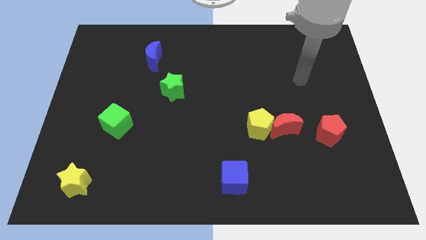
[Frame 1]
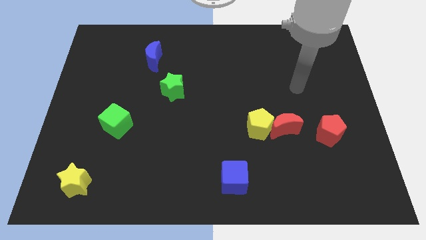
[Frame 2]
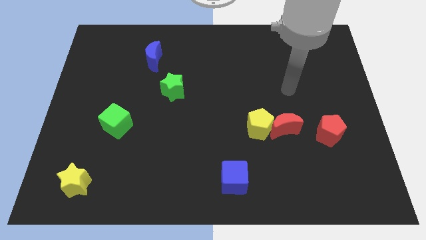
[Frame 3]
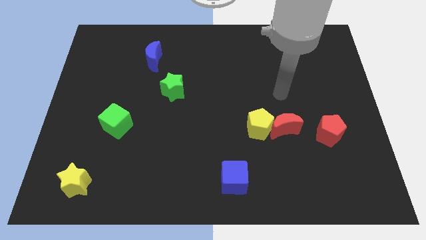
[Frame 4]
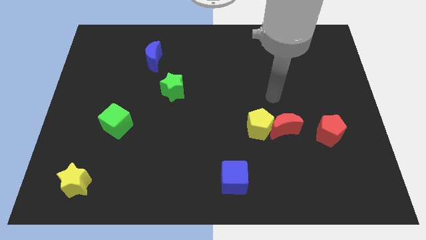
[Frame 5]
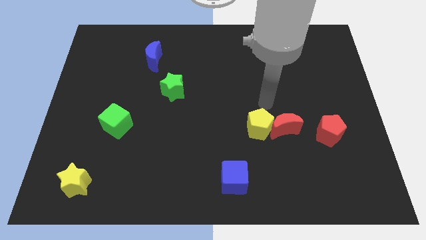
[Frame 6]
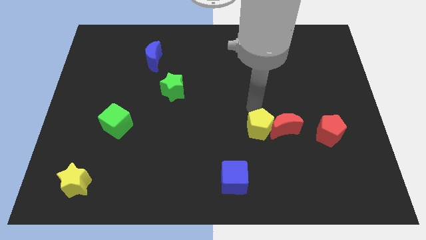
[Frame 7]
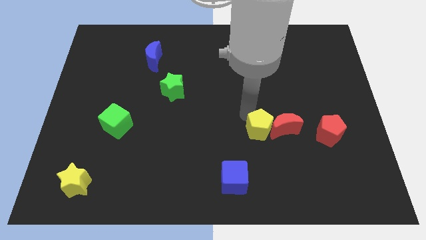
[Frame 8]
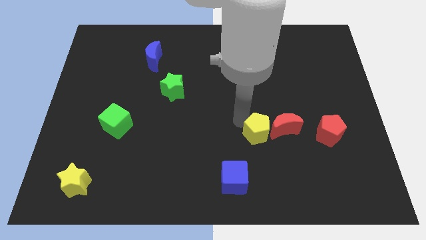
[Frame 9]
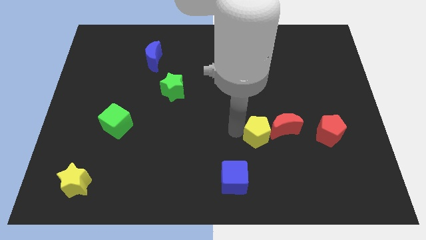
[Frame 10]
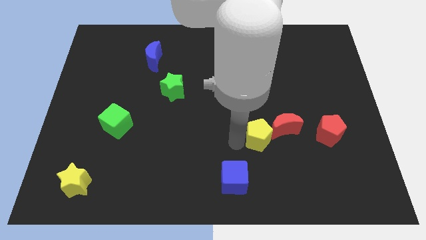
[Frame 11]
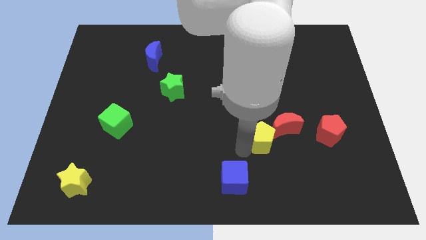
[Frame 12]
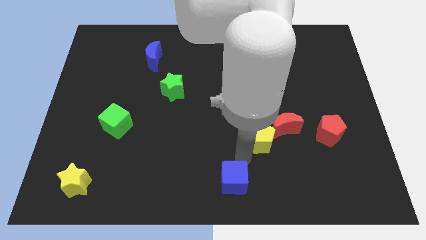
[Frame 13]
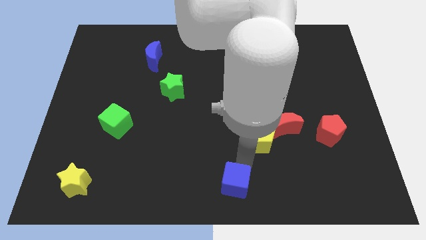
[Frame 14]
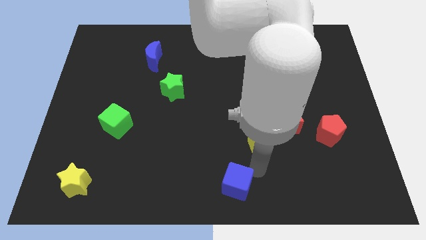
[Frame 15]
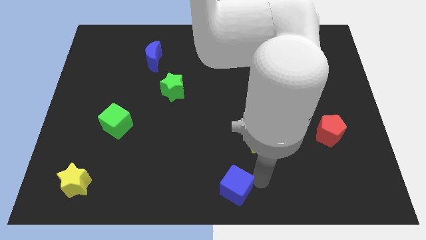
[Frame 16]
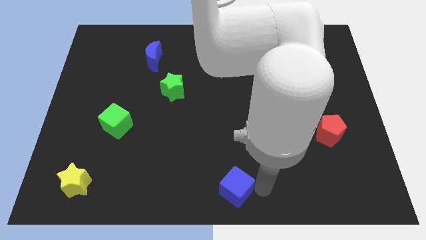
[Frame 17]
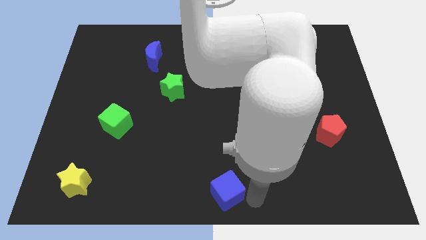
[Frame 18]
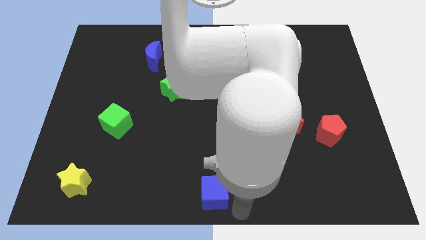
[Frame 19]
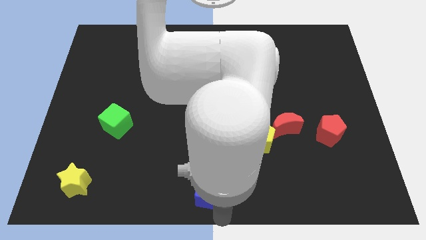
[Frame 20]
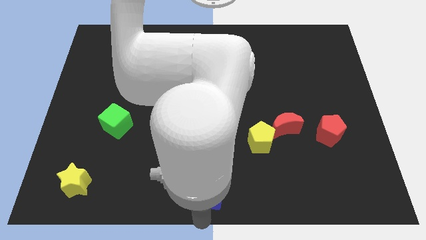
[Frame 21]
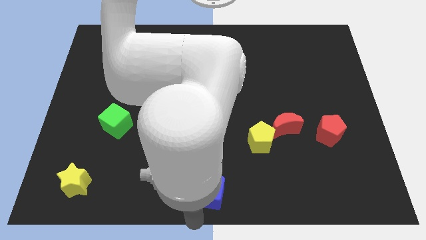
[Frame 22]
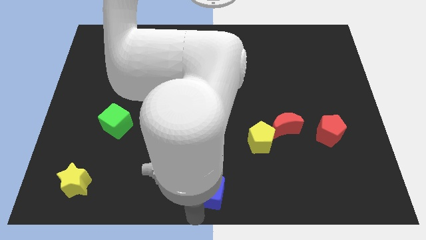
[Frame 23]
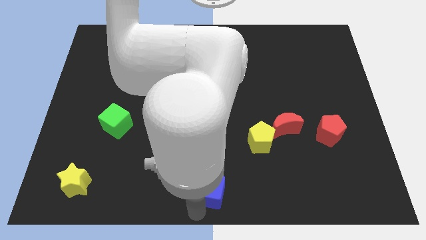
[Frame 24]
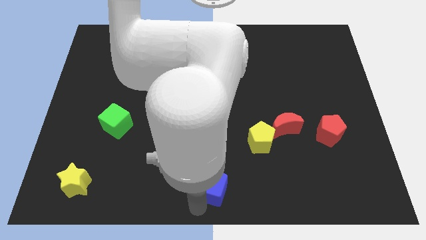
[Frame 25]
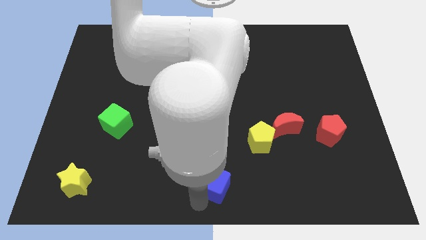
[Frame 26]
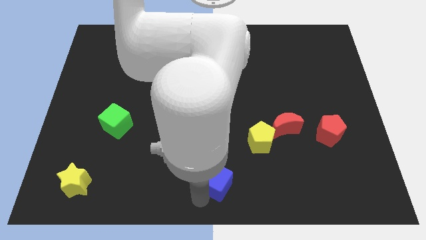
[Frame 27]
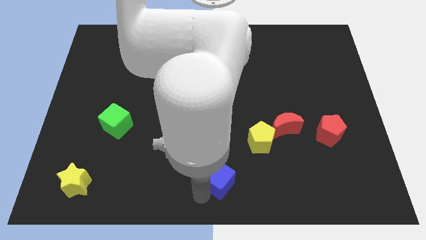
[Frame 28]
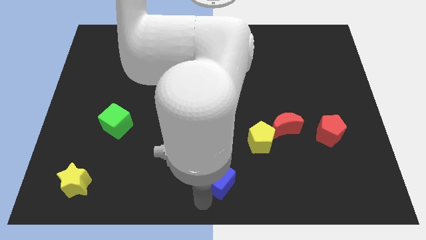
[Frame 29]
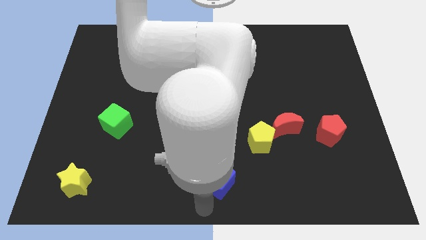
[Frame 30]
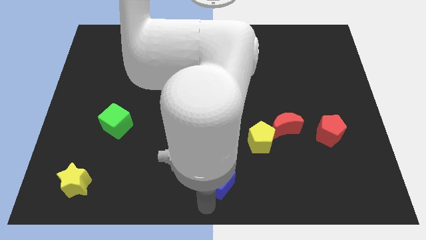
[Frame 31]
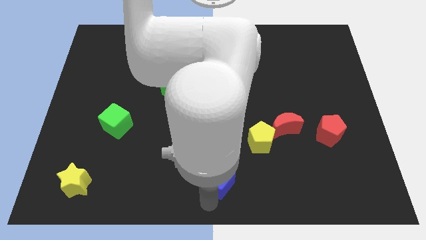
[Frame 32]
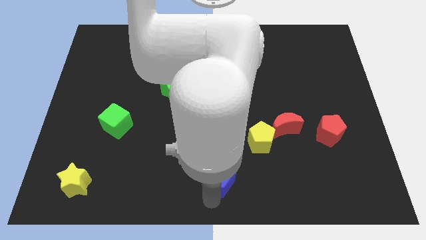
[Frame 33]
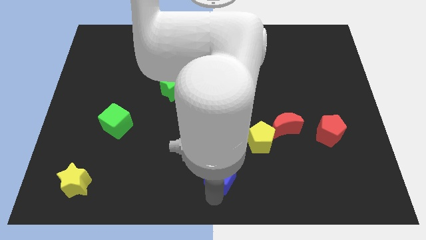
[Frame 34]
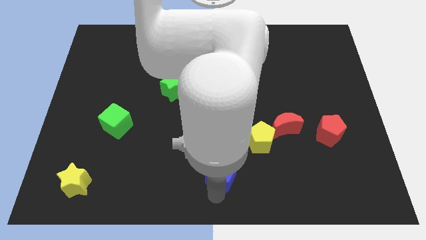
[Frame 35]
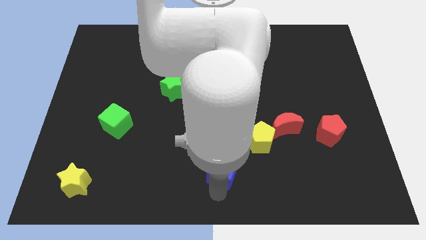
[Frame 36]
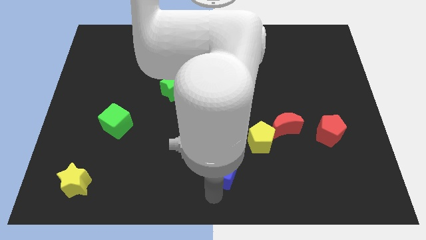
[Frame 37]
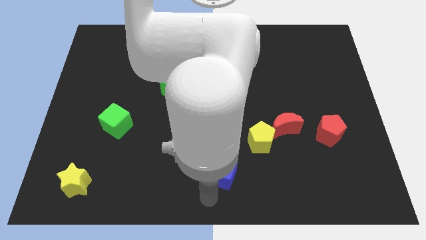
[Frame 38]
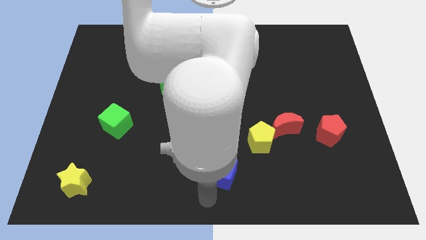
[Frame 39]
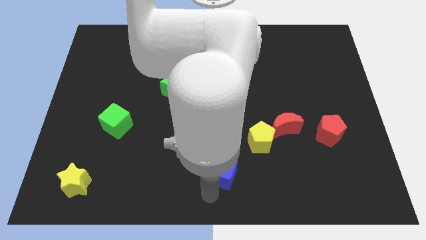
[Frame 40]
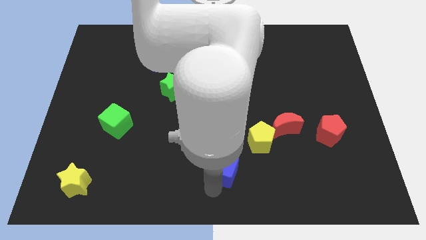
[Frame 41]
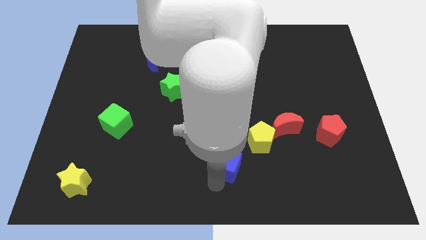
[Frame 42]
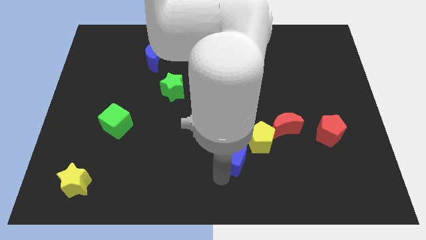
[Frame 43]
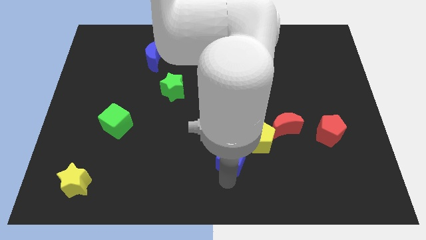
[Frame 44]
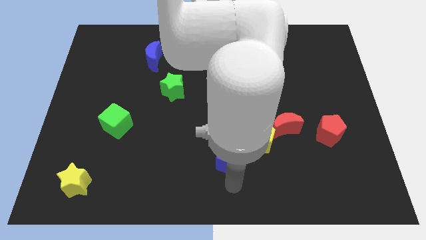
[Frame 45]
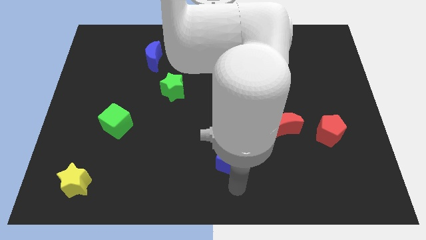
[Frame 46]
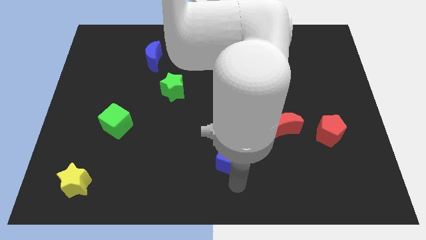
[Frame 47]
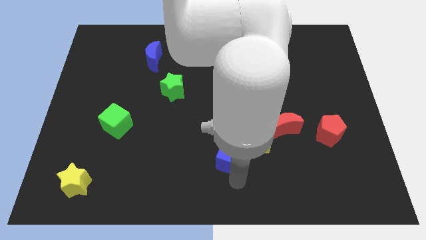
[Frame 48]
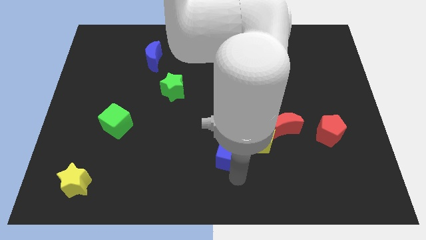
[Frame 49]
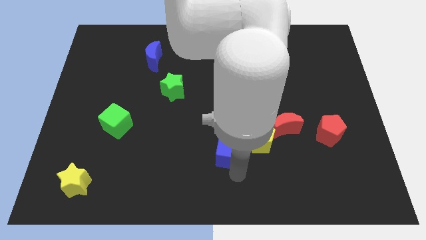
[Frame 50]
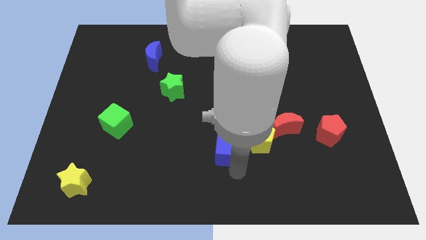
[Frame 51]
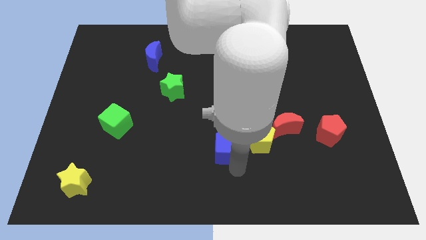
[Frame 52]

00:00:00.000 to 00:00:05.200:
move the blue cube up somewhat
